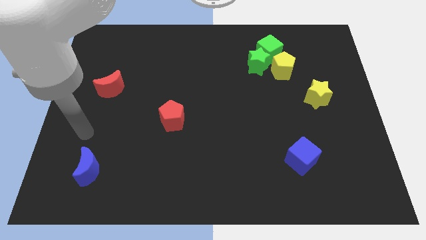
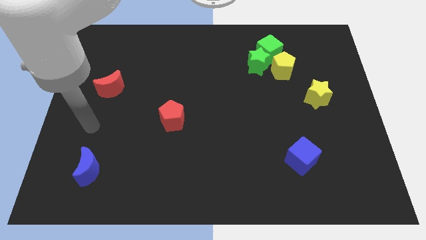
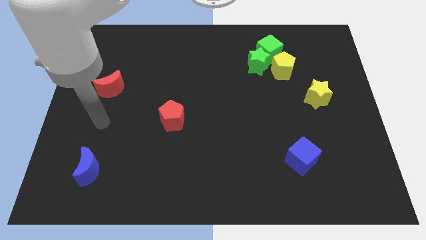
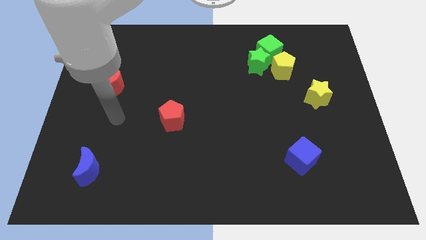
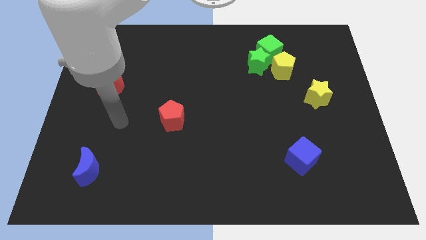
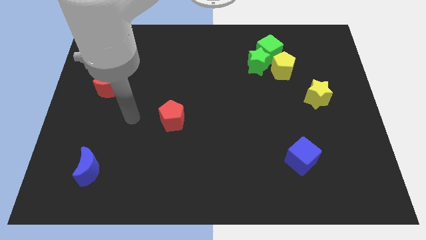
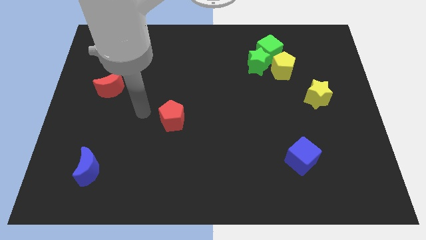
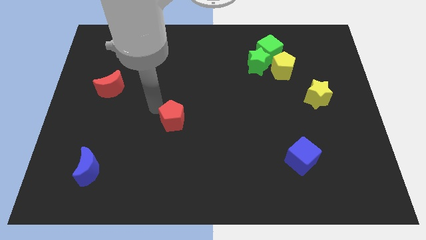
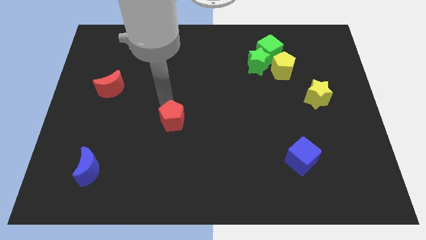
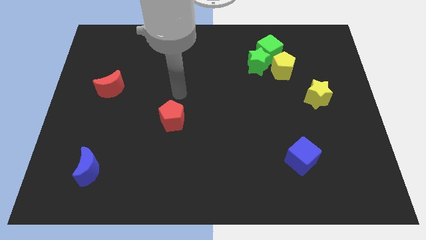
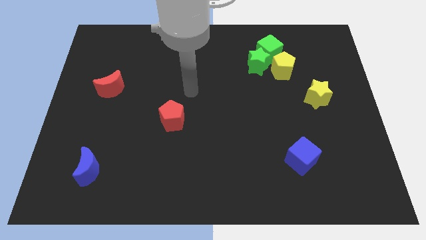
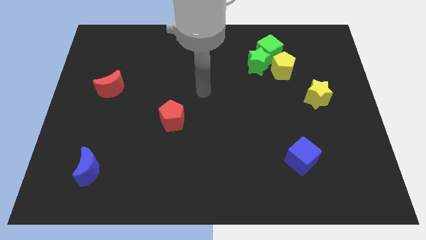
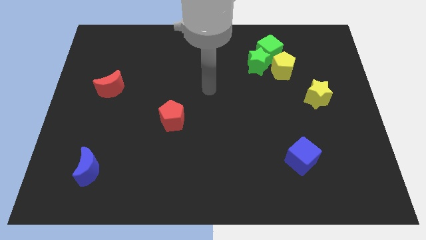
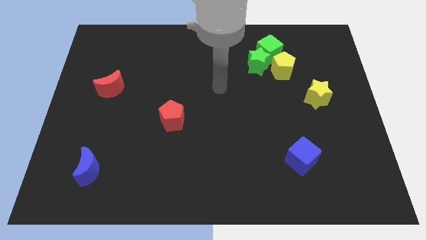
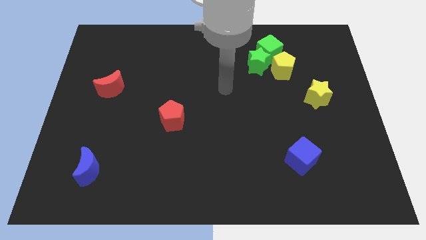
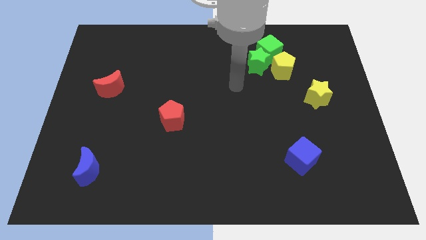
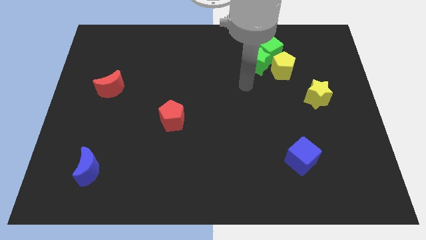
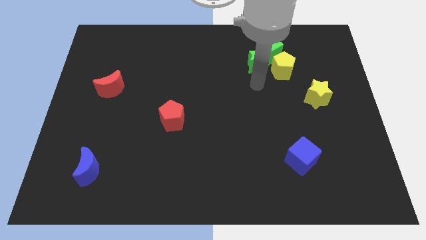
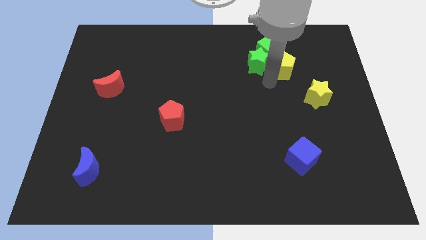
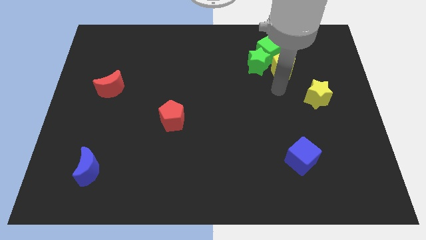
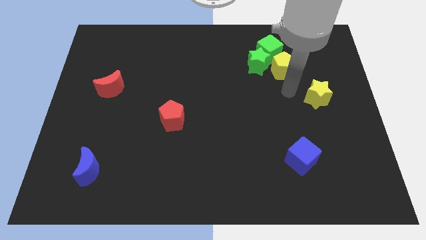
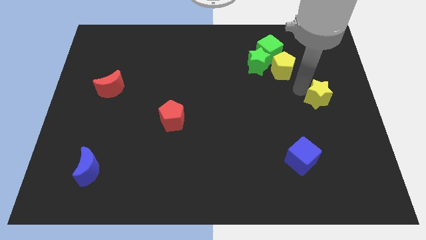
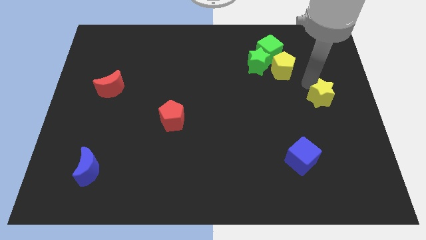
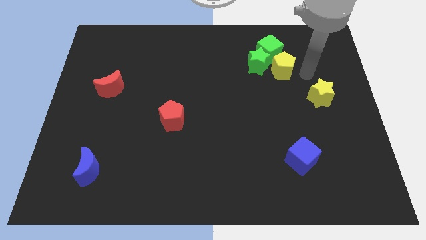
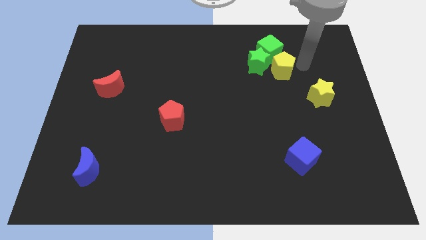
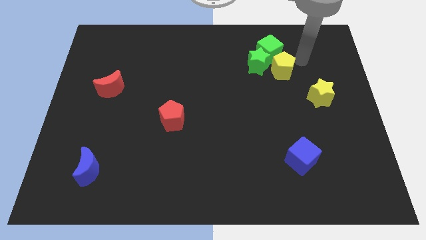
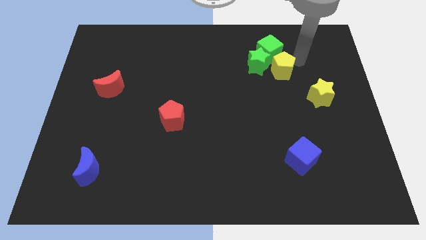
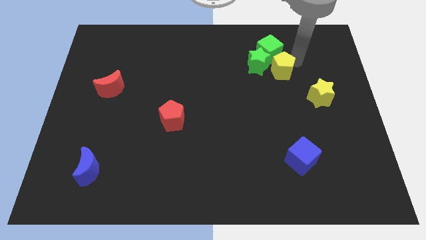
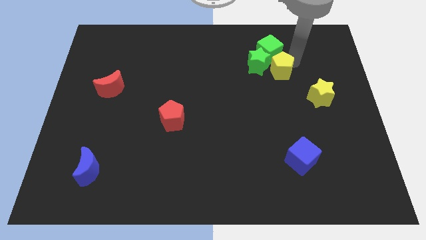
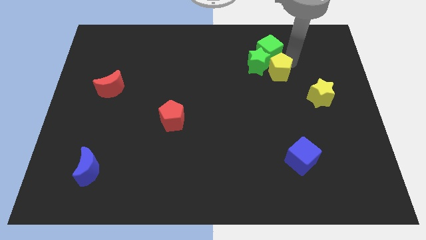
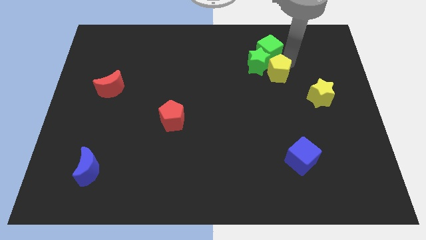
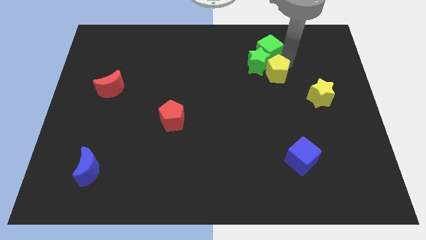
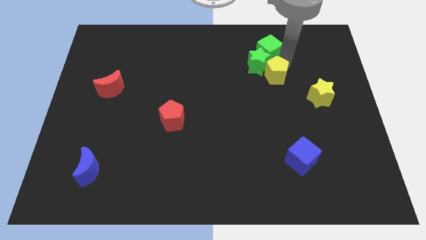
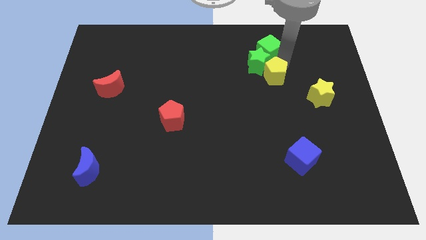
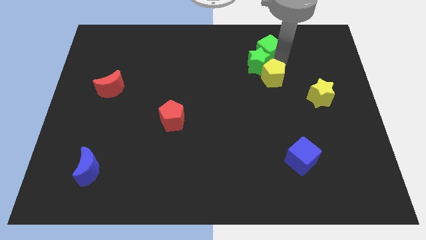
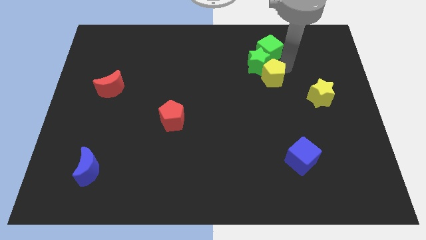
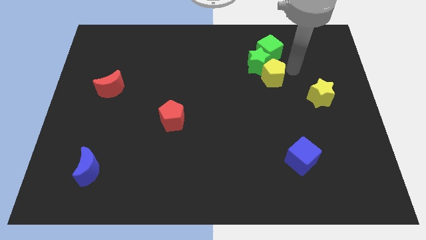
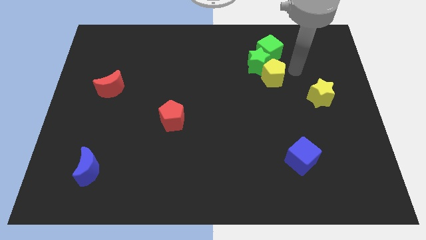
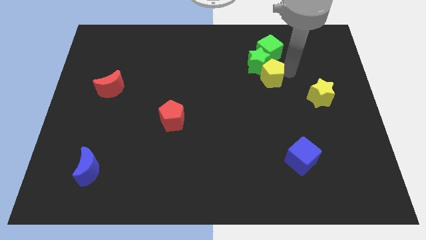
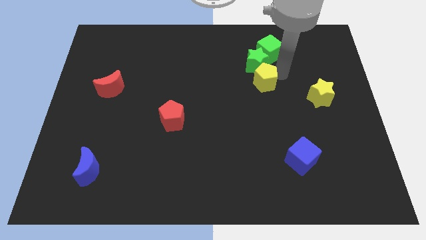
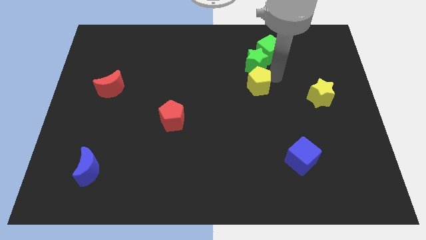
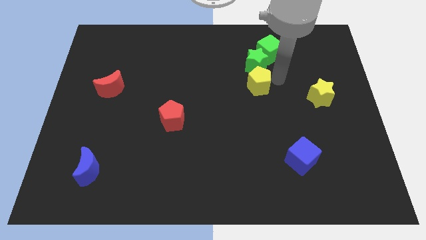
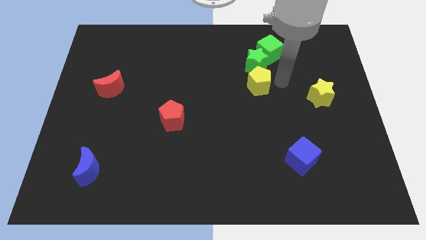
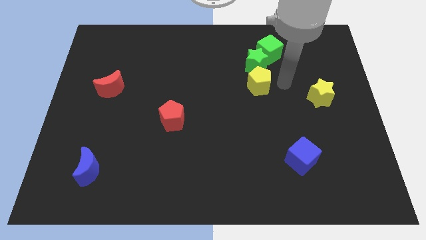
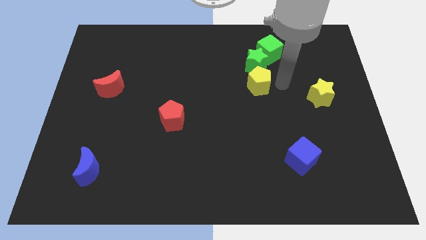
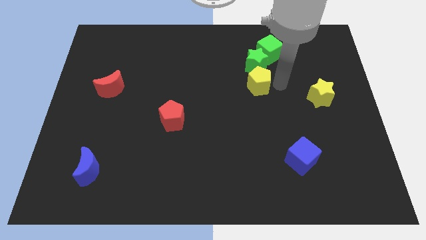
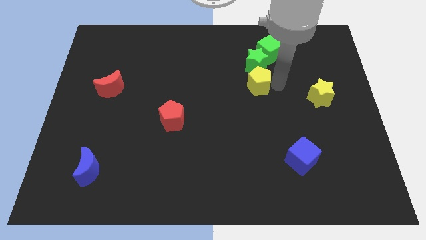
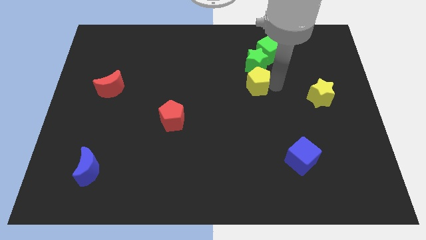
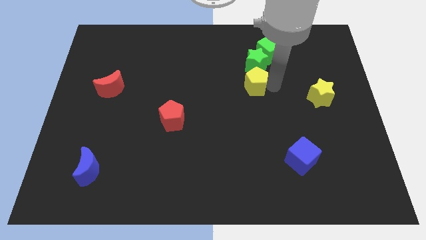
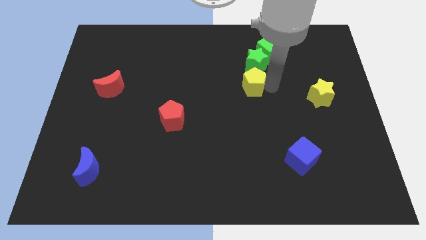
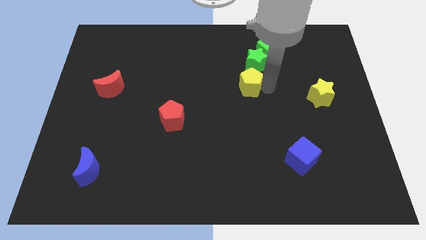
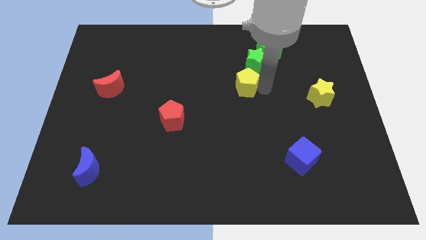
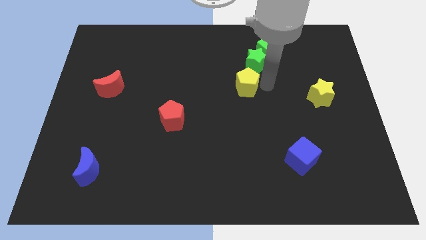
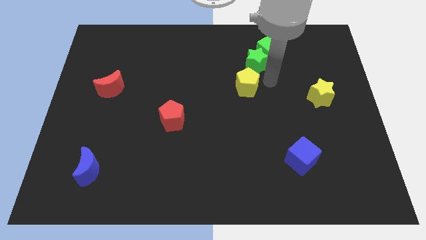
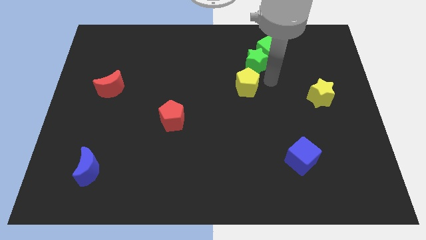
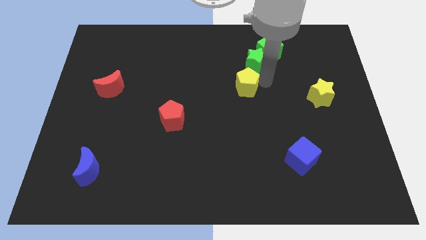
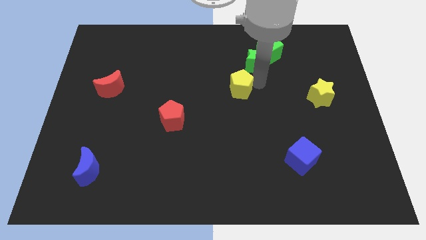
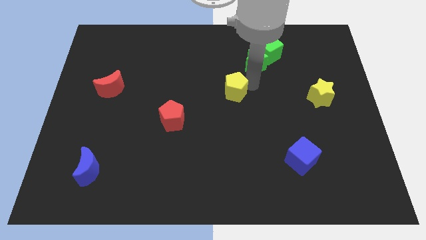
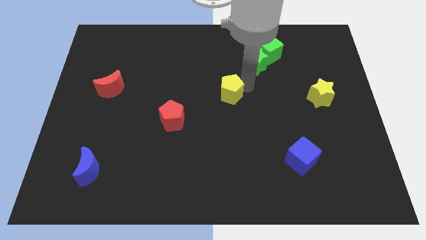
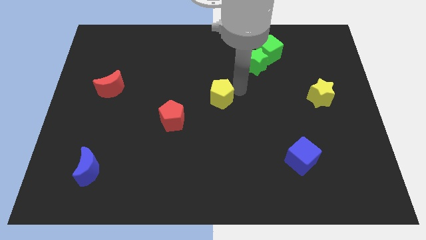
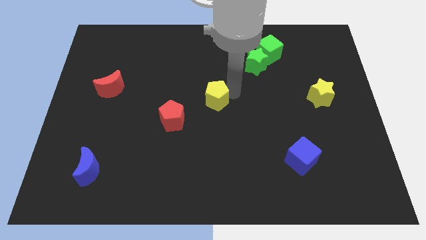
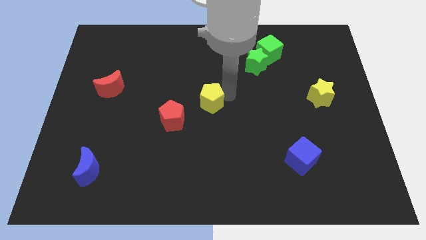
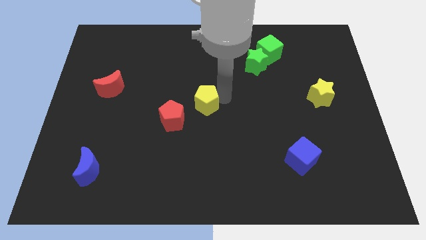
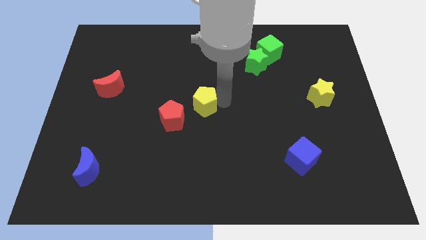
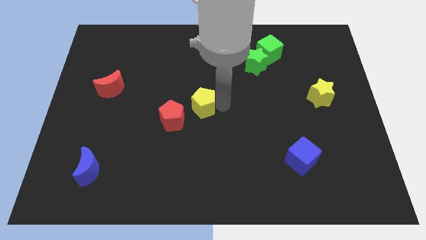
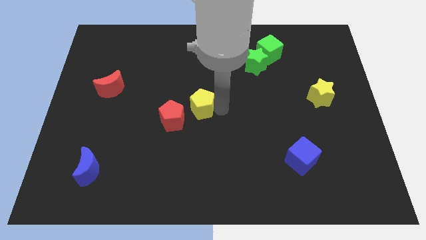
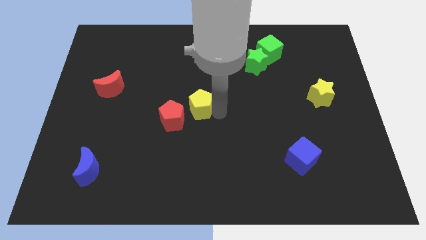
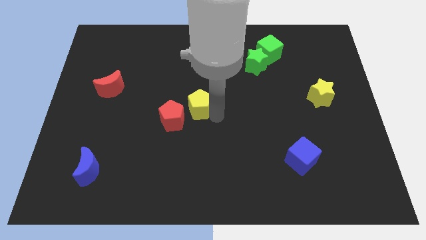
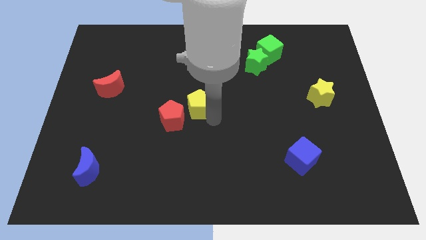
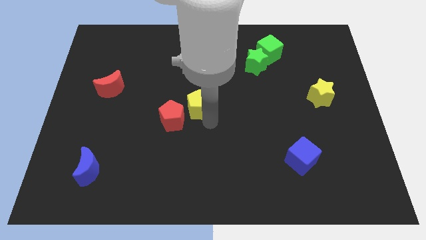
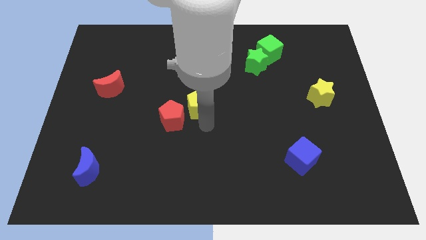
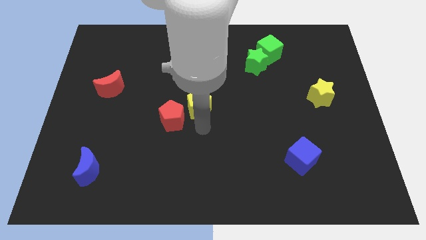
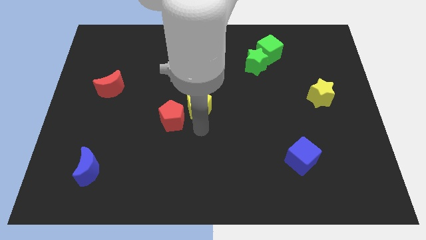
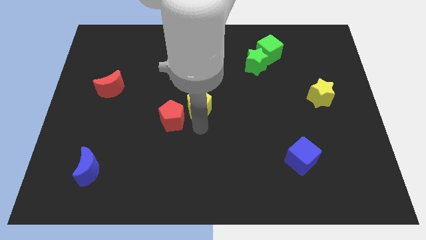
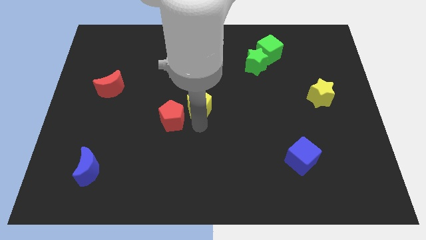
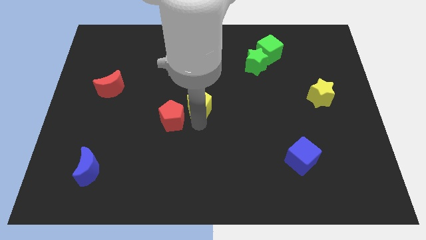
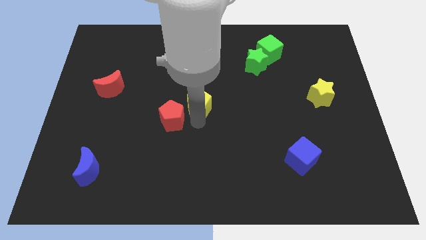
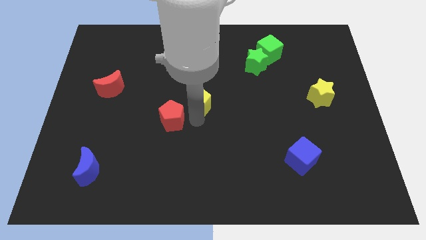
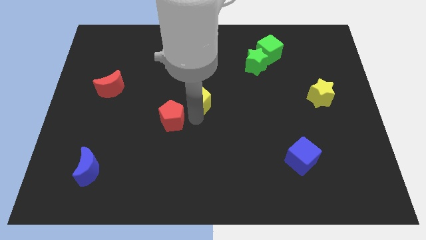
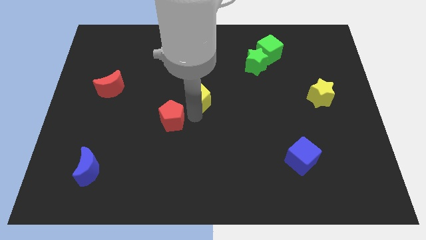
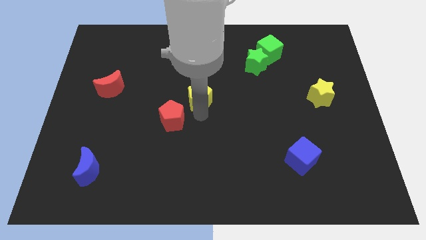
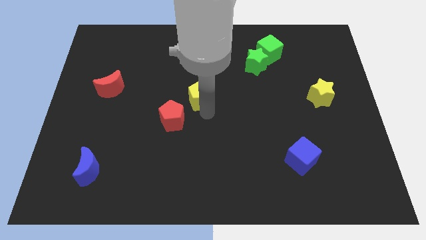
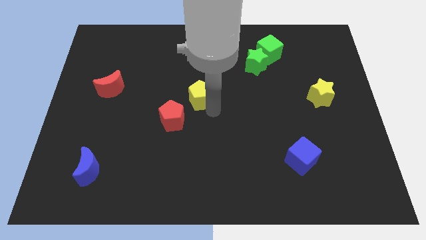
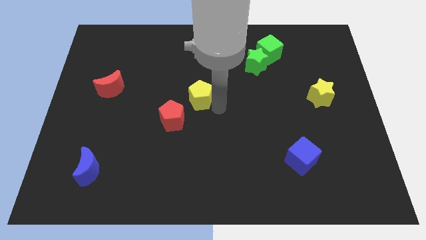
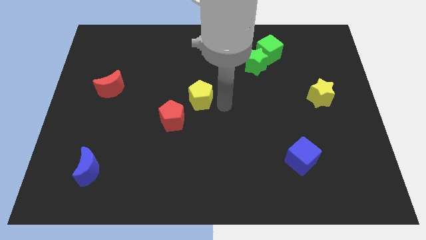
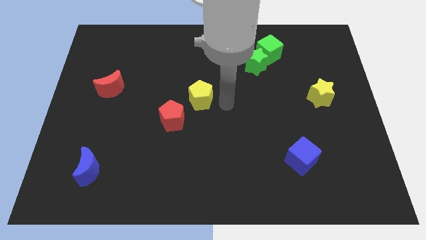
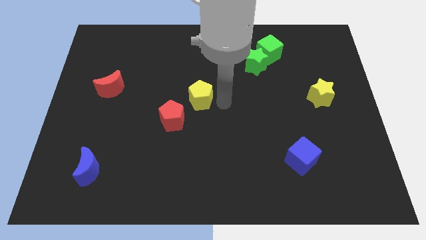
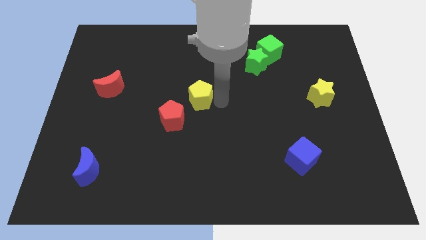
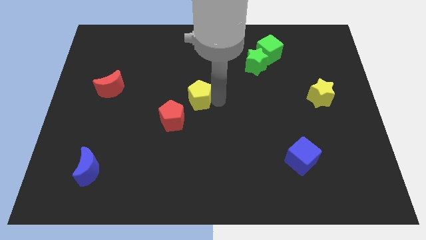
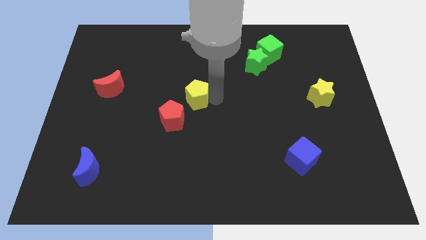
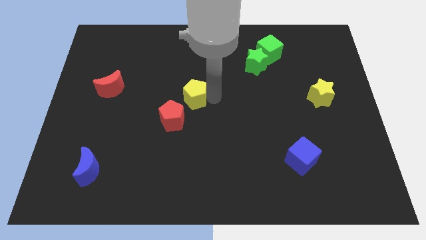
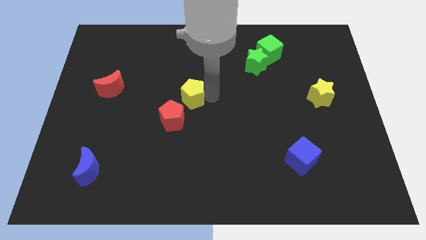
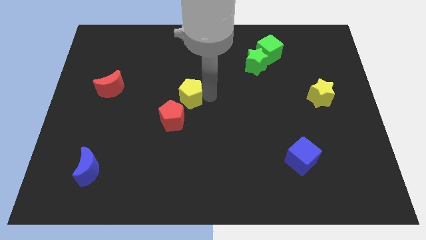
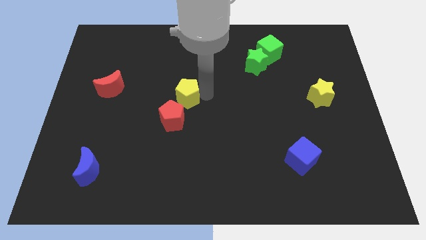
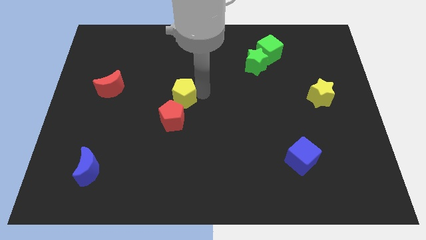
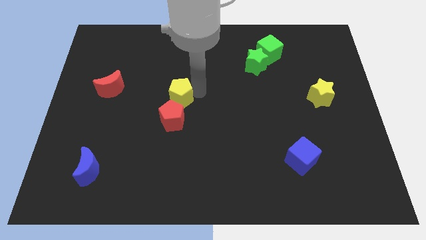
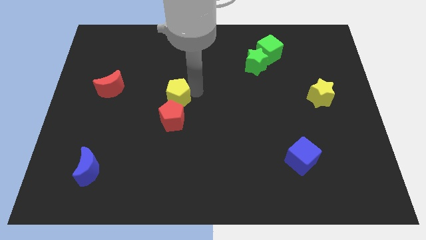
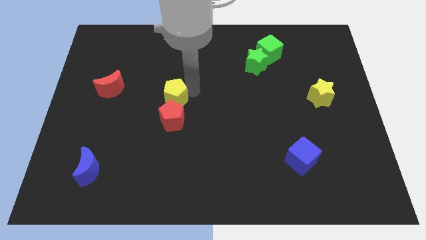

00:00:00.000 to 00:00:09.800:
put the yellow pentagon to the top left of the red pentagon
